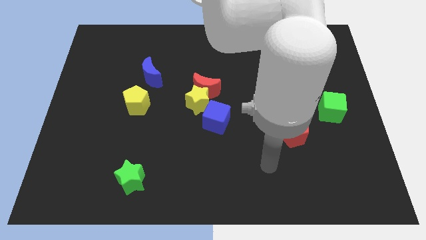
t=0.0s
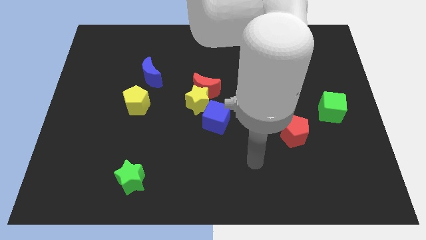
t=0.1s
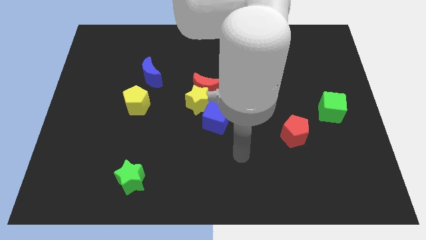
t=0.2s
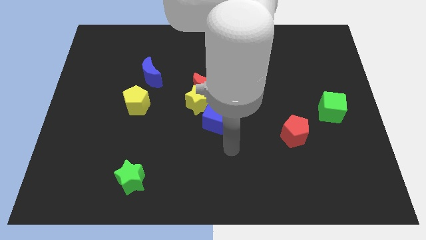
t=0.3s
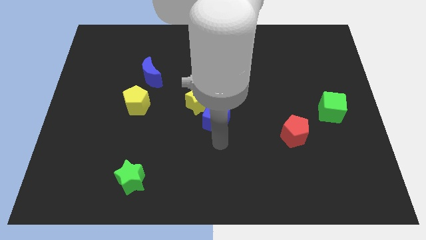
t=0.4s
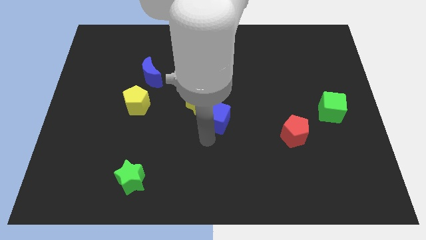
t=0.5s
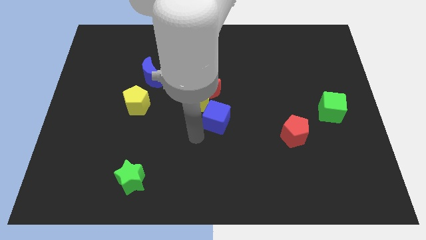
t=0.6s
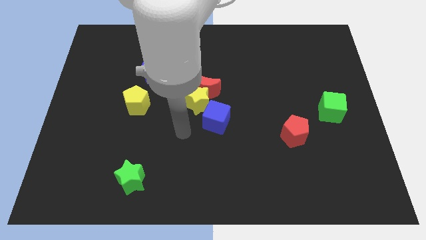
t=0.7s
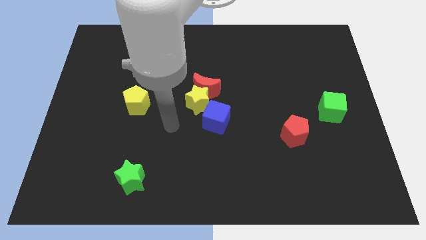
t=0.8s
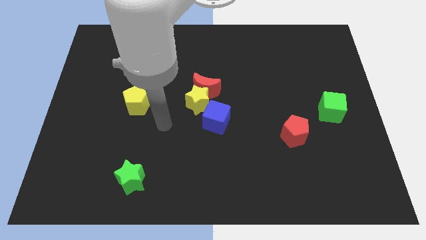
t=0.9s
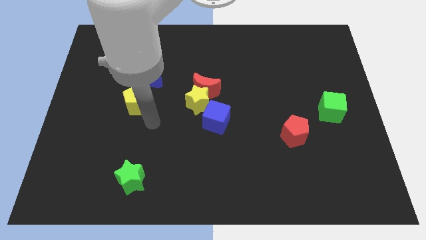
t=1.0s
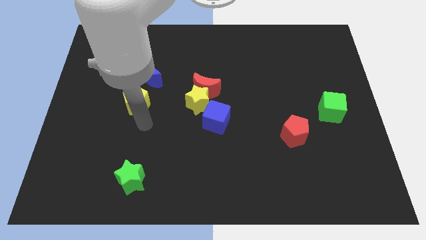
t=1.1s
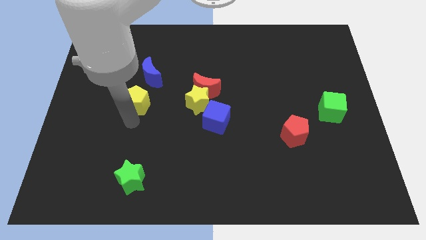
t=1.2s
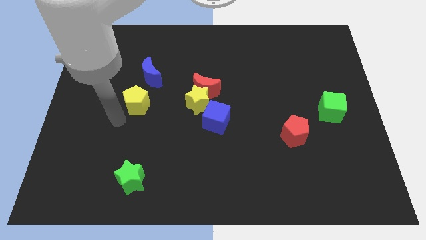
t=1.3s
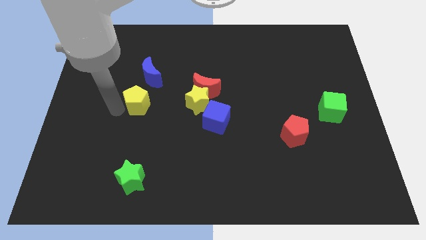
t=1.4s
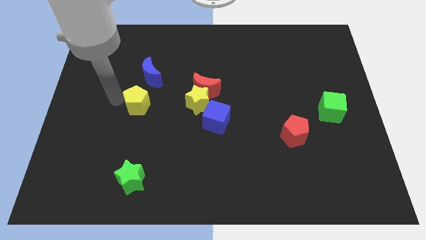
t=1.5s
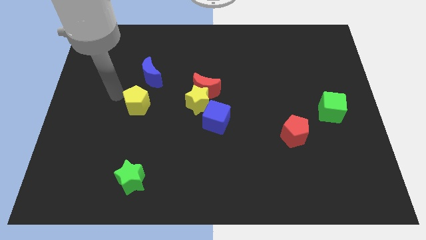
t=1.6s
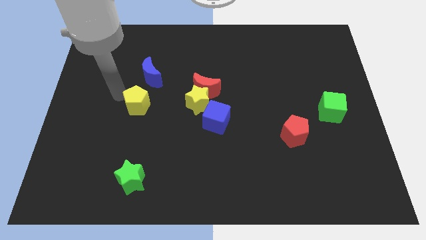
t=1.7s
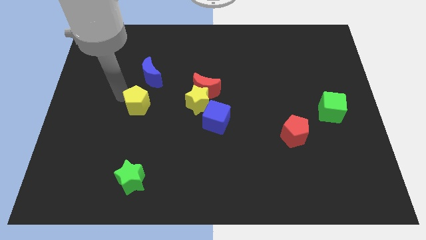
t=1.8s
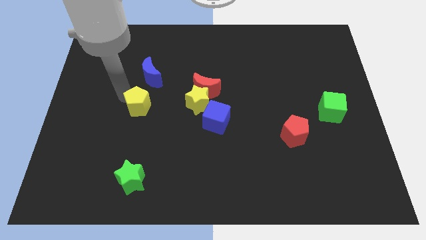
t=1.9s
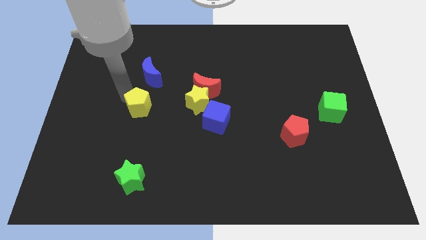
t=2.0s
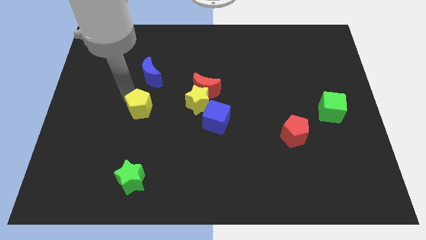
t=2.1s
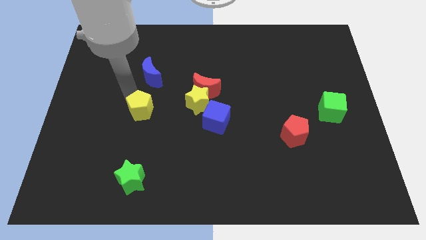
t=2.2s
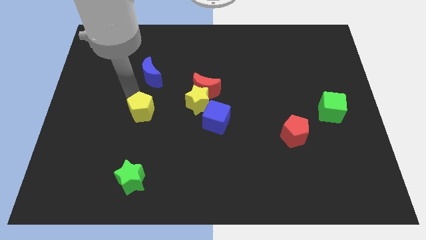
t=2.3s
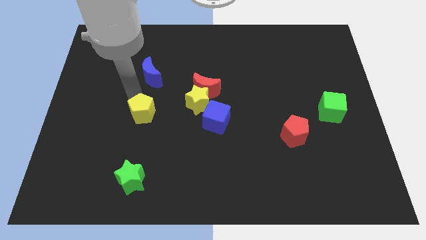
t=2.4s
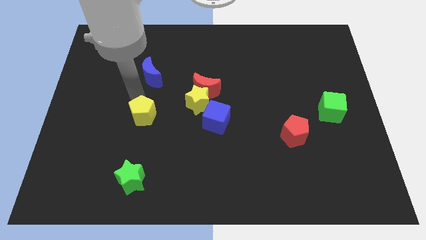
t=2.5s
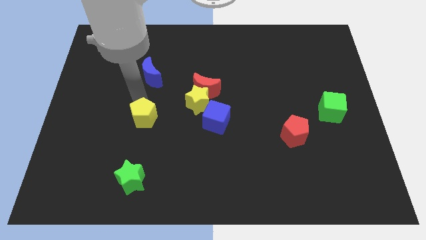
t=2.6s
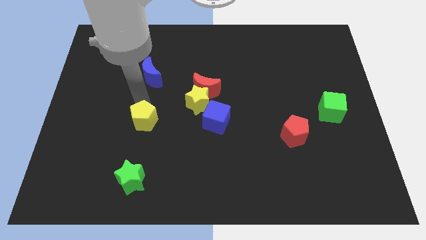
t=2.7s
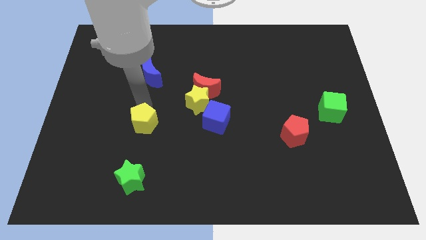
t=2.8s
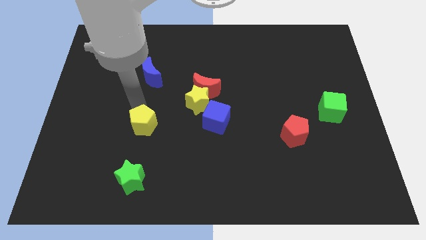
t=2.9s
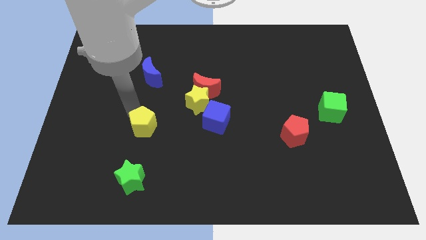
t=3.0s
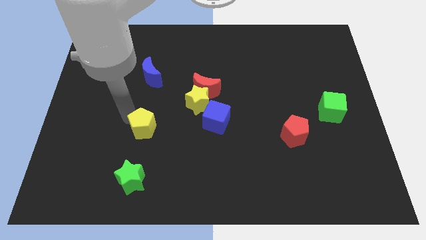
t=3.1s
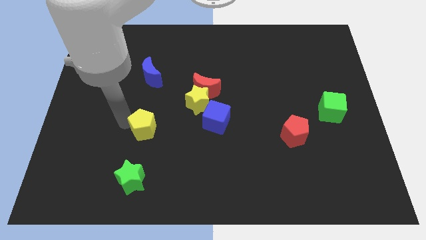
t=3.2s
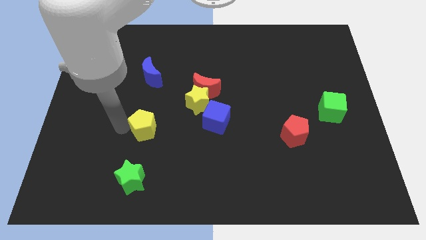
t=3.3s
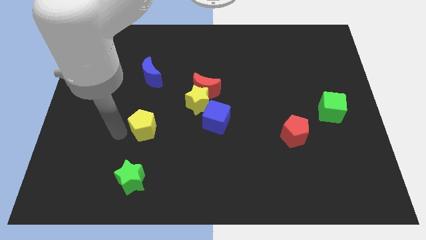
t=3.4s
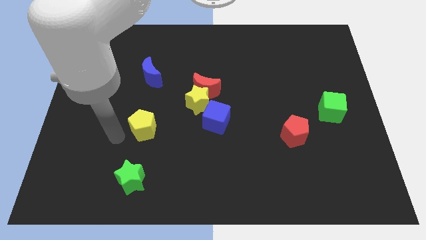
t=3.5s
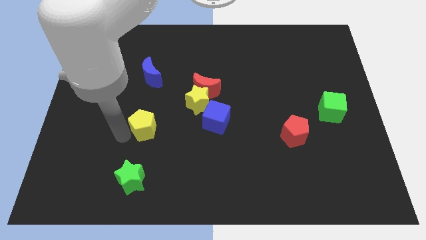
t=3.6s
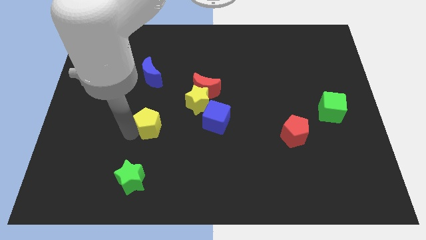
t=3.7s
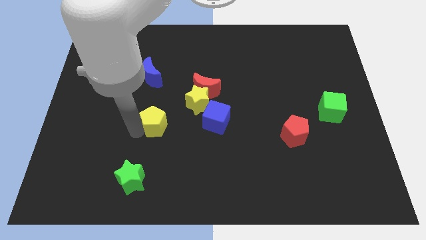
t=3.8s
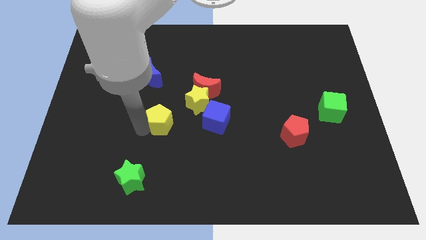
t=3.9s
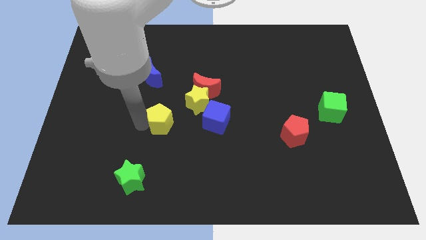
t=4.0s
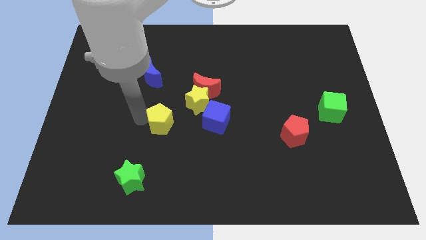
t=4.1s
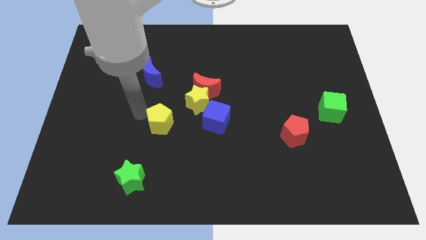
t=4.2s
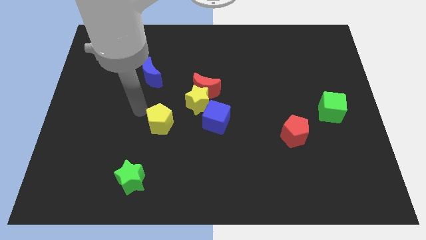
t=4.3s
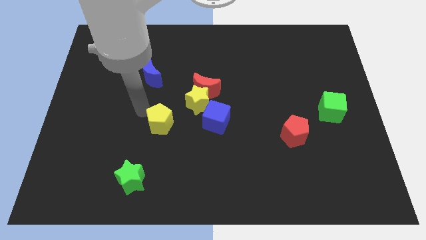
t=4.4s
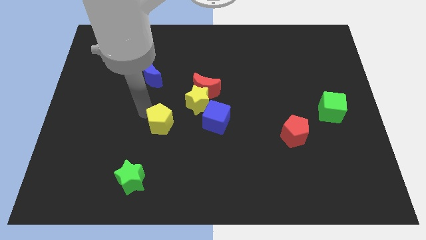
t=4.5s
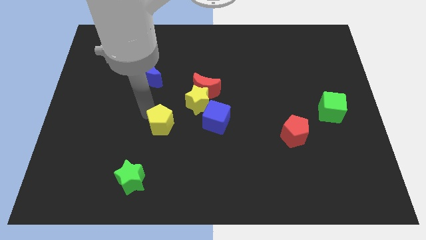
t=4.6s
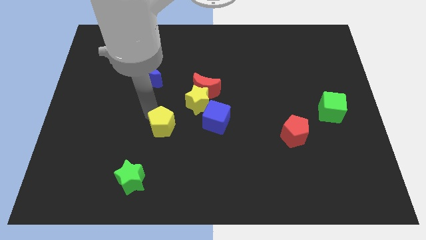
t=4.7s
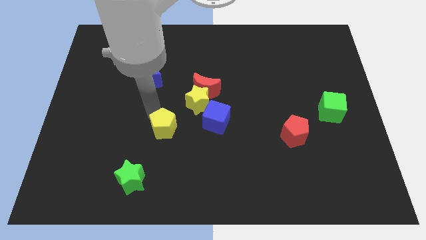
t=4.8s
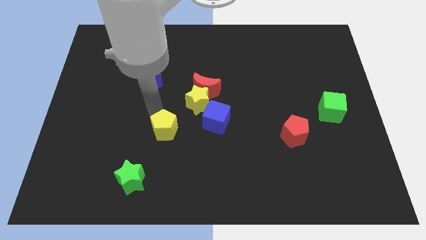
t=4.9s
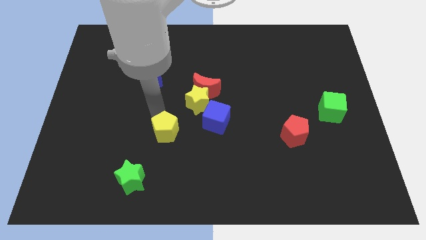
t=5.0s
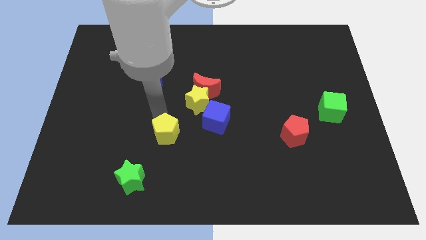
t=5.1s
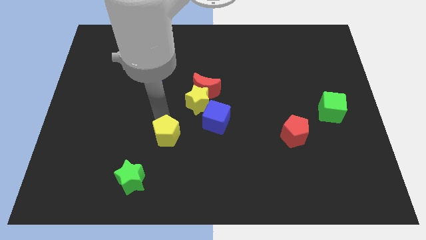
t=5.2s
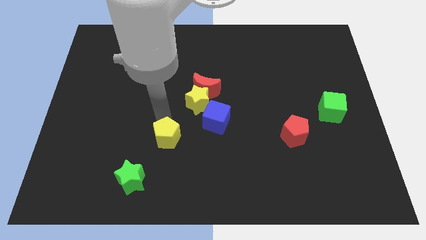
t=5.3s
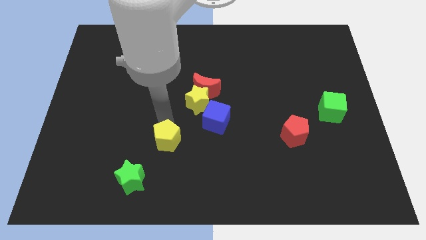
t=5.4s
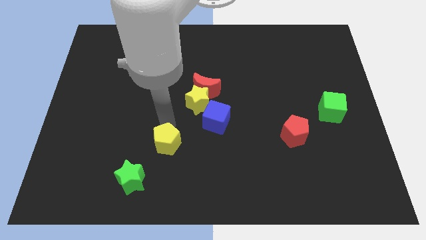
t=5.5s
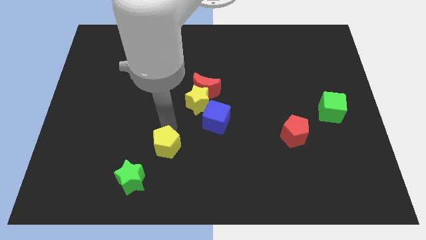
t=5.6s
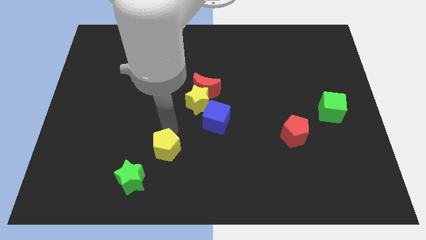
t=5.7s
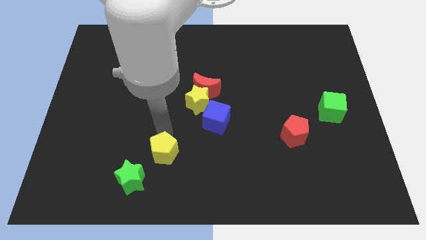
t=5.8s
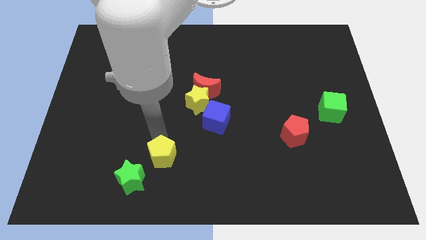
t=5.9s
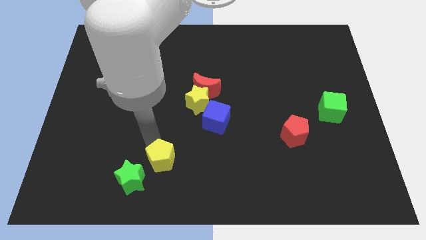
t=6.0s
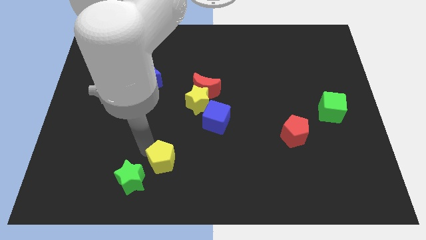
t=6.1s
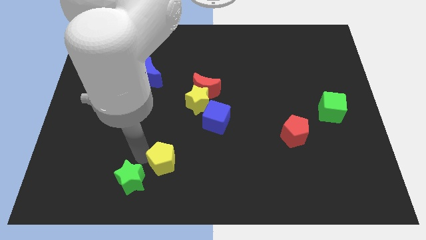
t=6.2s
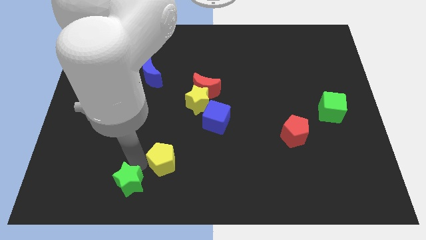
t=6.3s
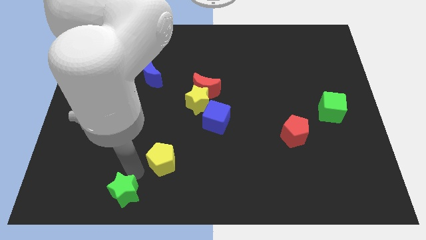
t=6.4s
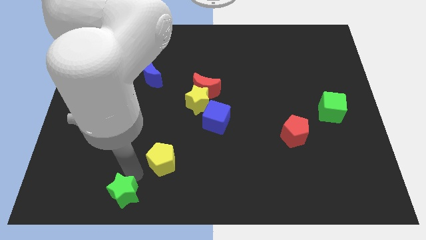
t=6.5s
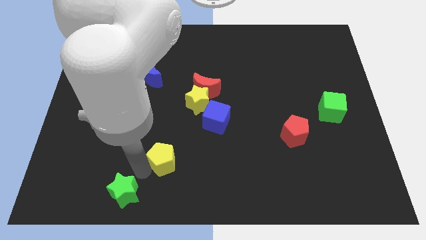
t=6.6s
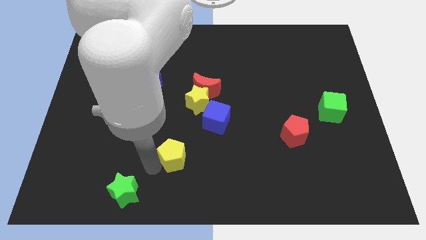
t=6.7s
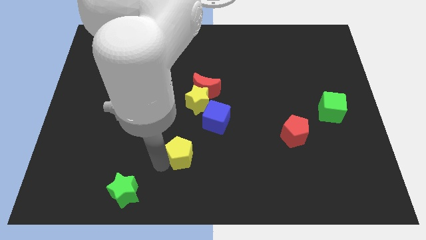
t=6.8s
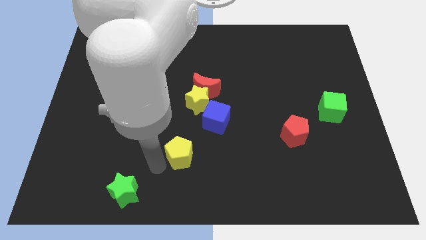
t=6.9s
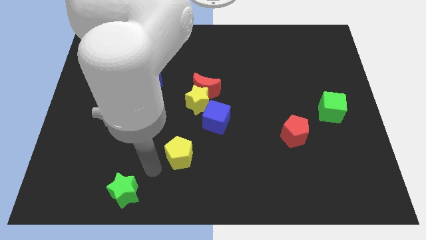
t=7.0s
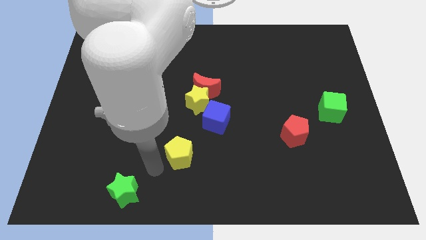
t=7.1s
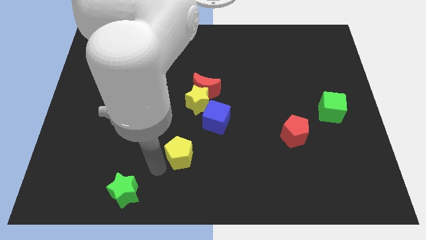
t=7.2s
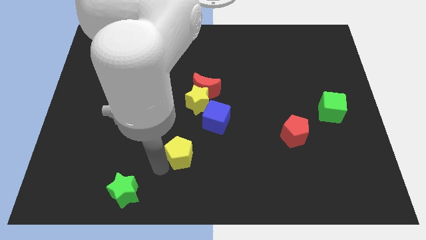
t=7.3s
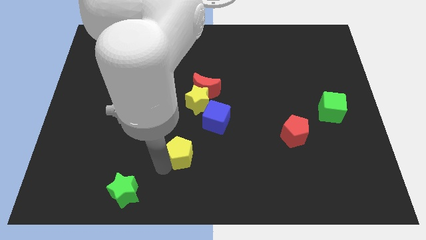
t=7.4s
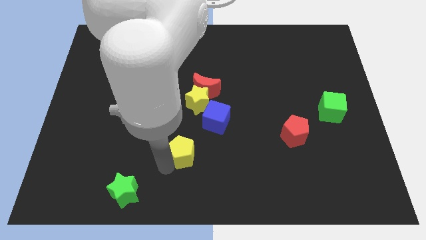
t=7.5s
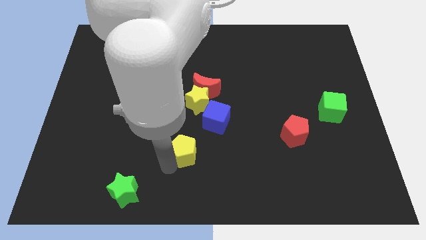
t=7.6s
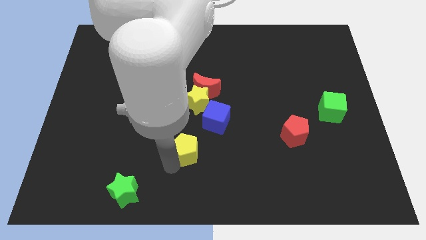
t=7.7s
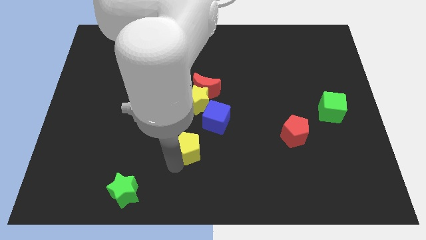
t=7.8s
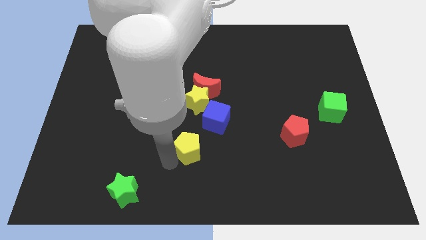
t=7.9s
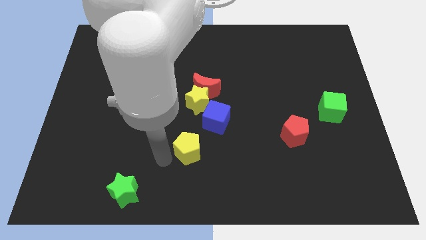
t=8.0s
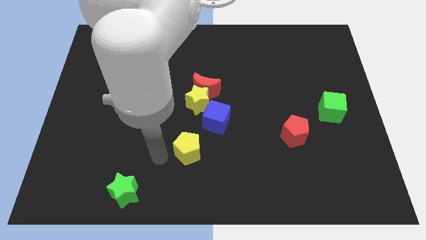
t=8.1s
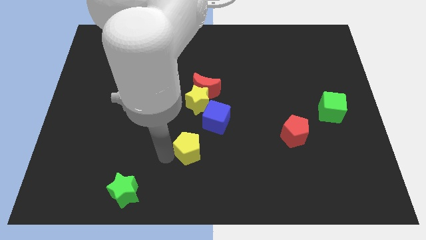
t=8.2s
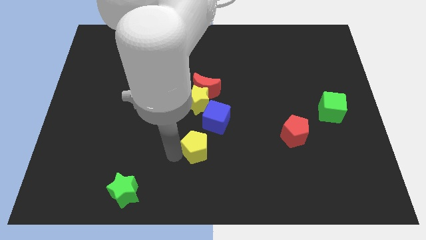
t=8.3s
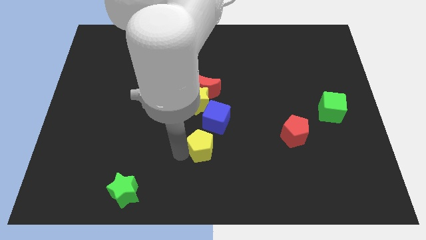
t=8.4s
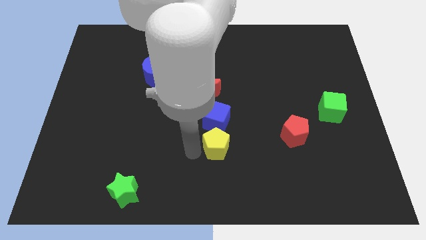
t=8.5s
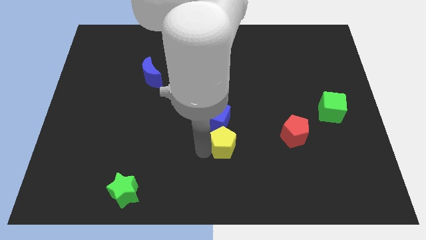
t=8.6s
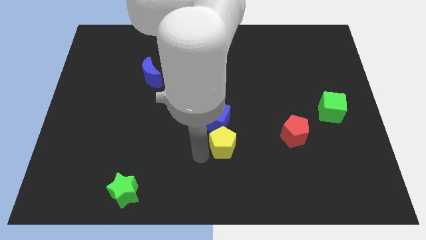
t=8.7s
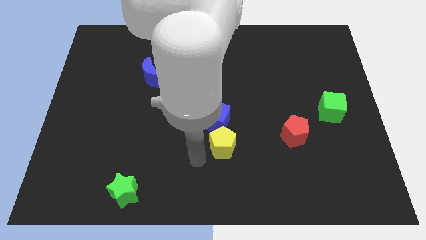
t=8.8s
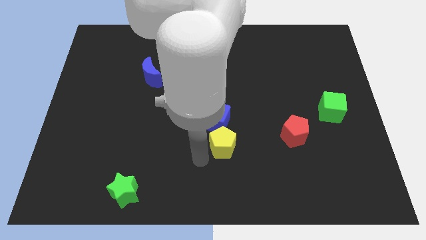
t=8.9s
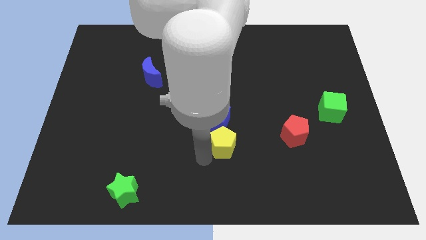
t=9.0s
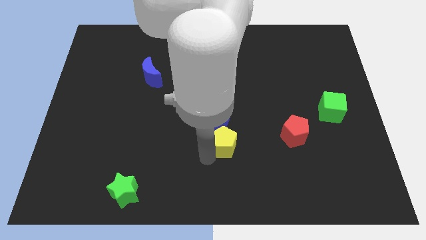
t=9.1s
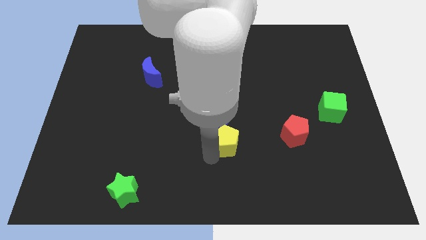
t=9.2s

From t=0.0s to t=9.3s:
put the yellow pentagon left of the red pentagon
